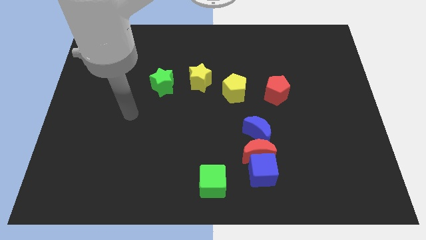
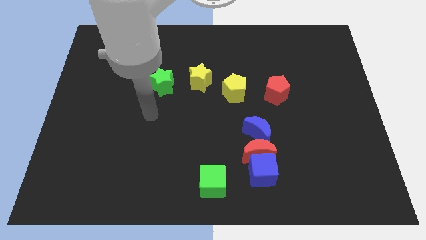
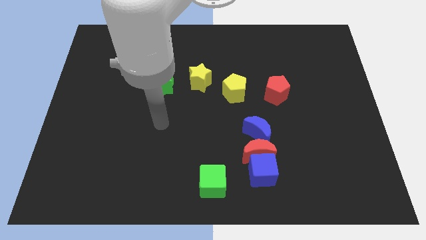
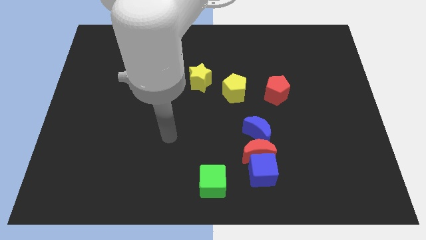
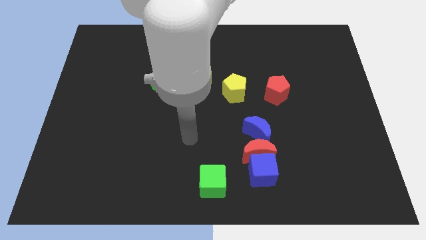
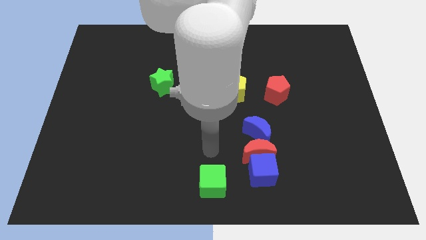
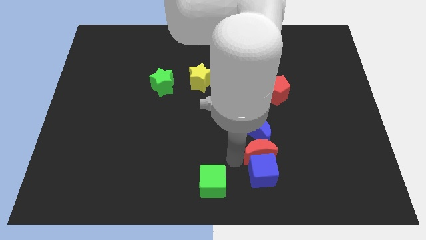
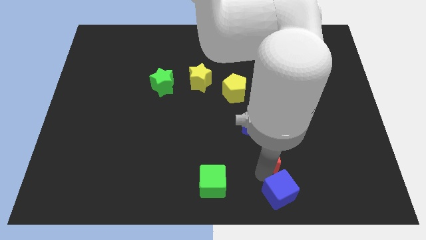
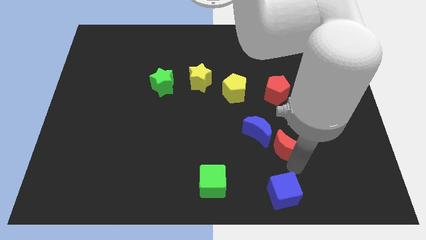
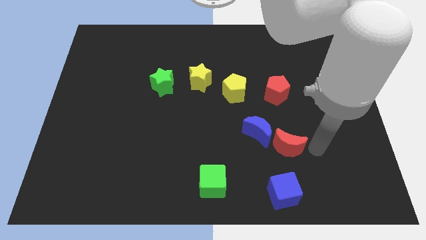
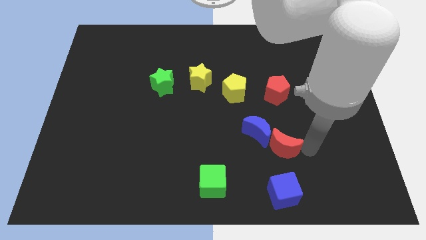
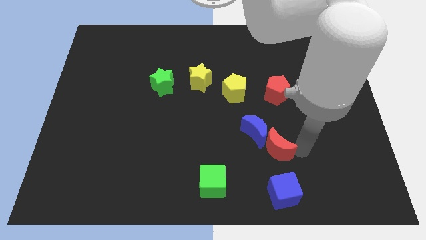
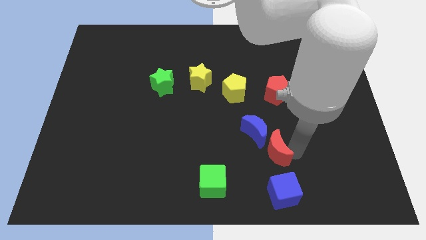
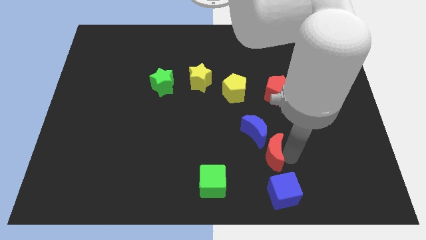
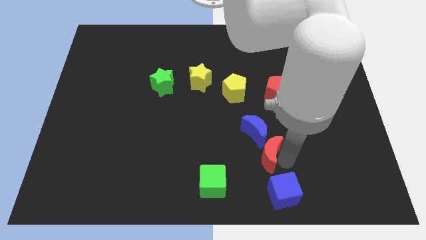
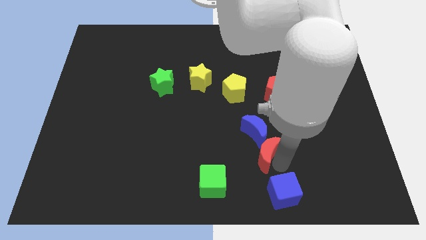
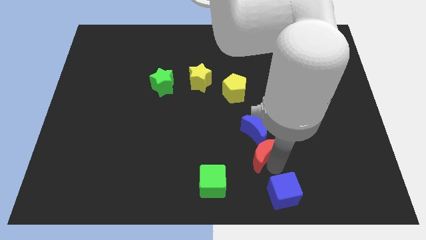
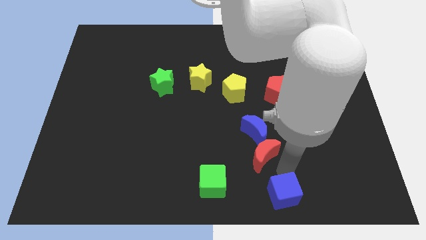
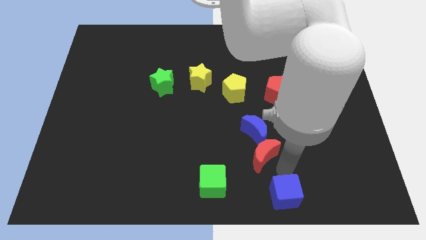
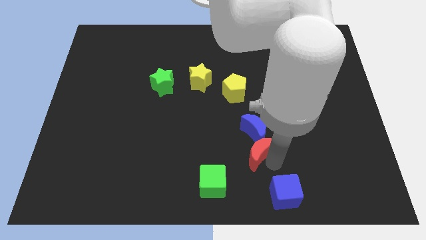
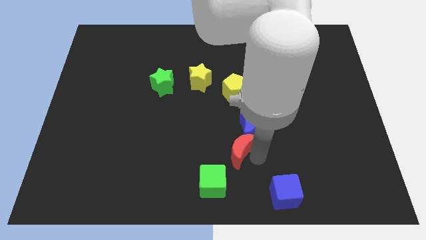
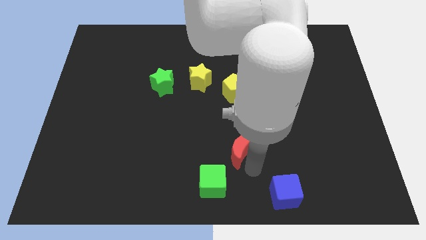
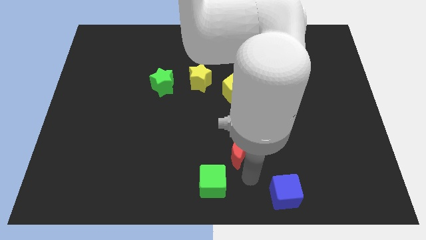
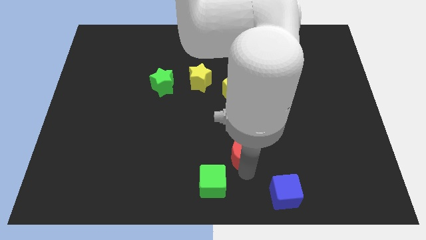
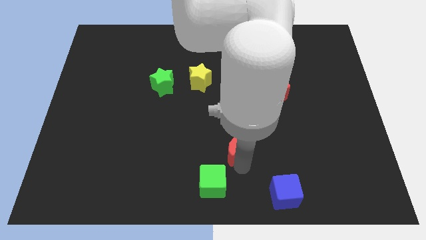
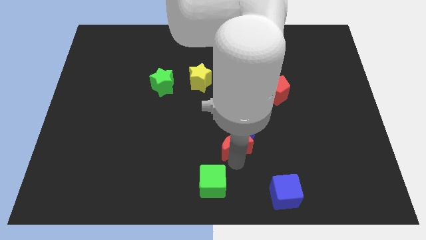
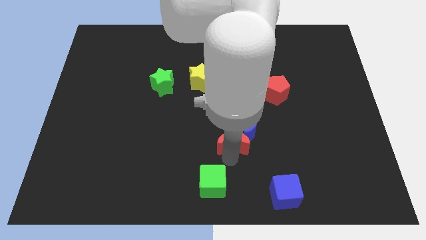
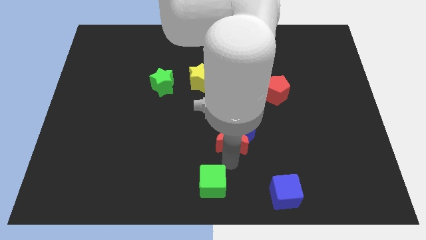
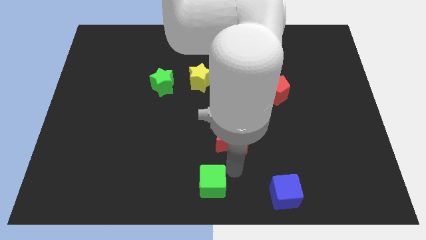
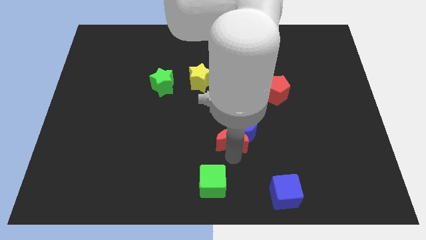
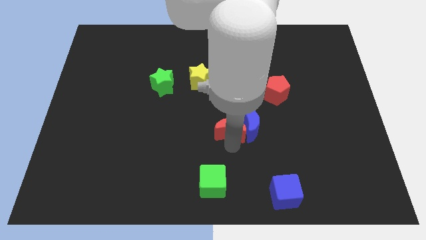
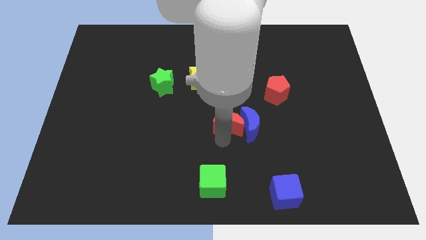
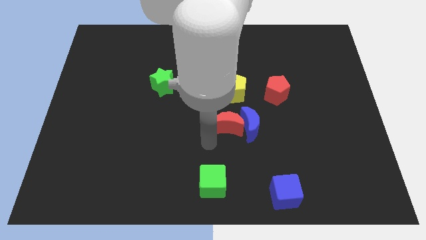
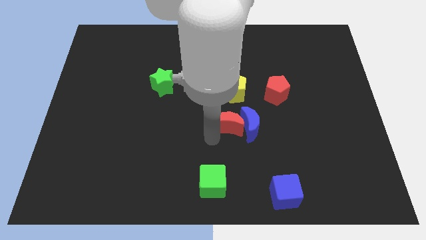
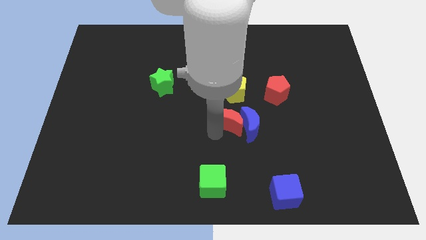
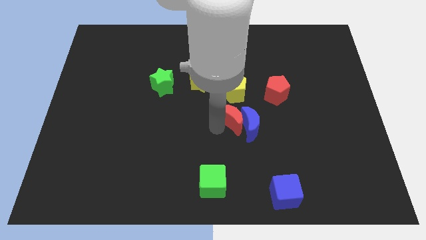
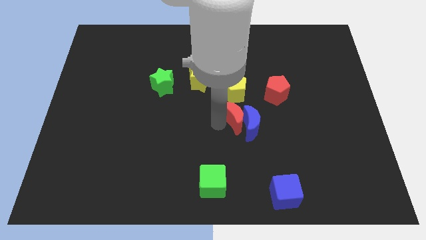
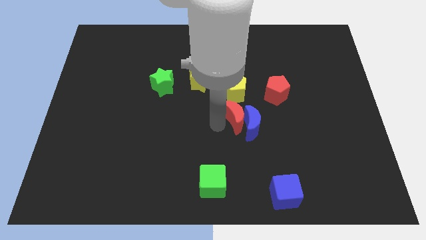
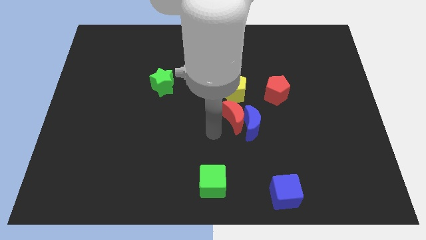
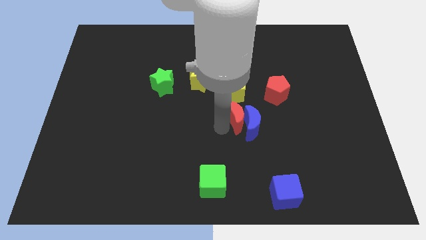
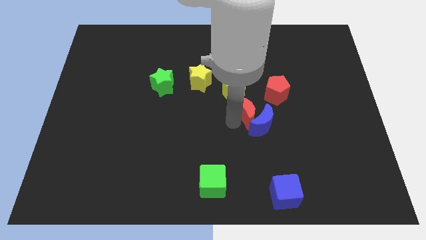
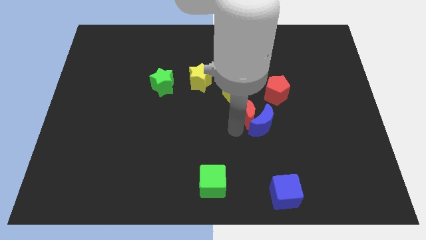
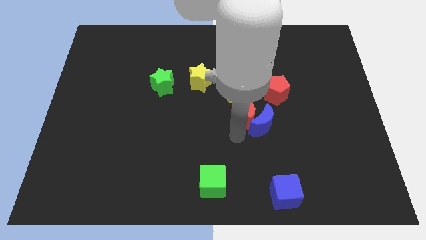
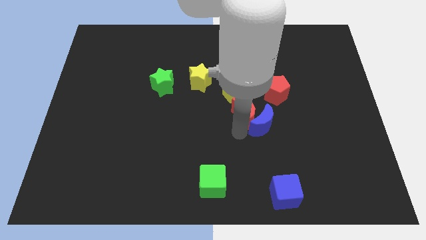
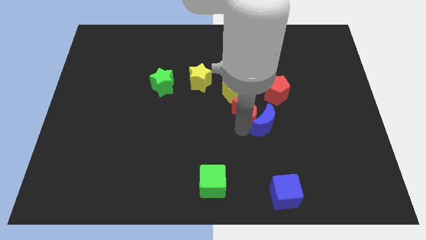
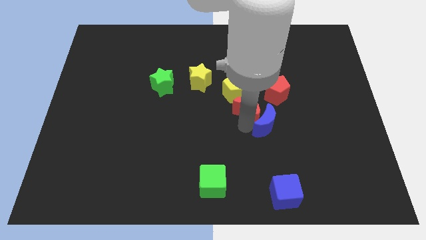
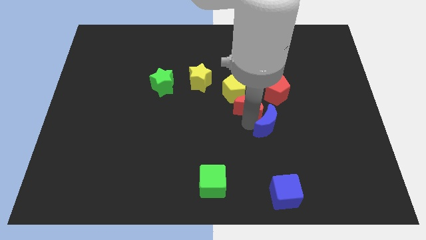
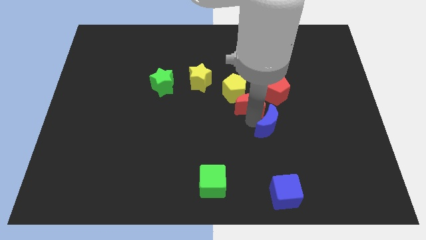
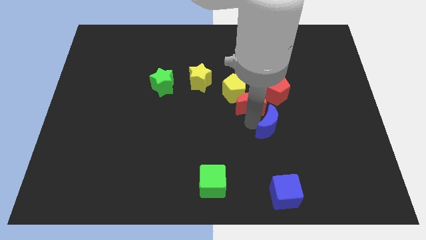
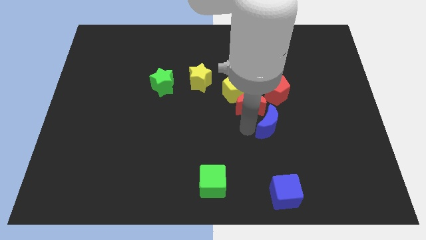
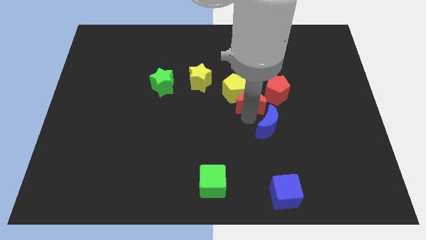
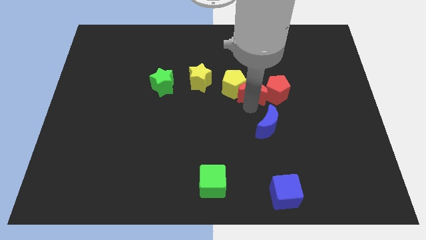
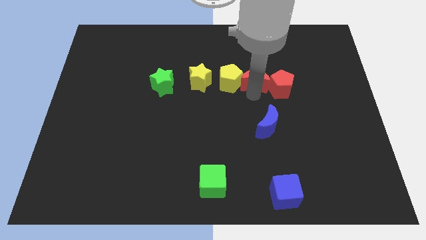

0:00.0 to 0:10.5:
move the red moon to the top right side of the yellow pentagon

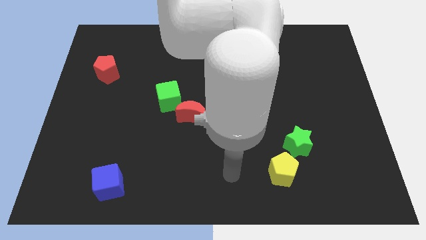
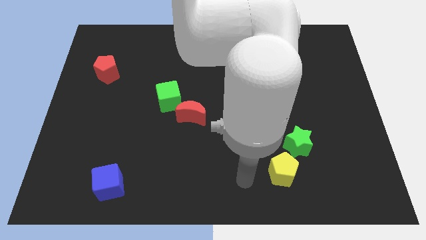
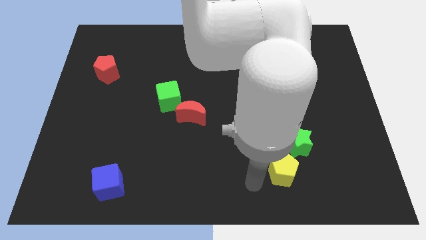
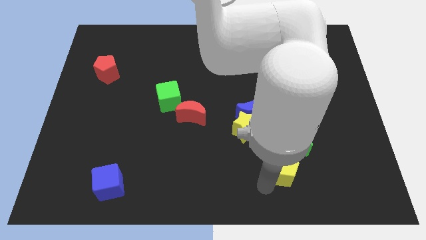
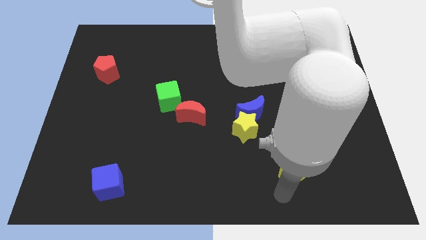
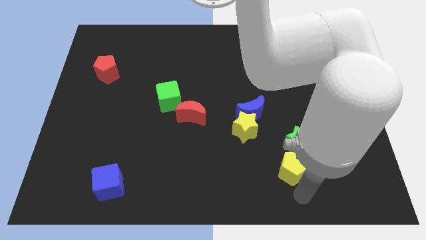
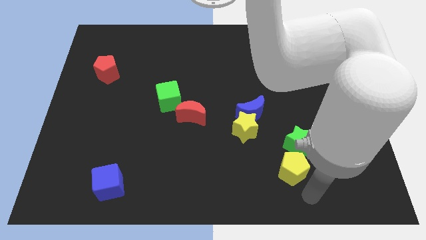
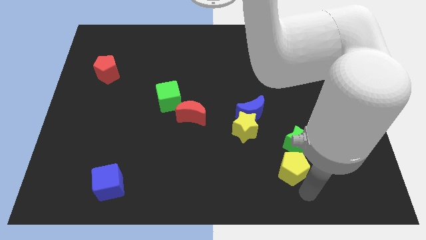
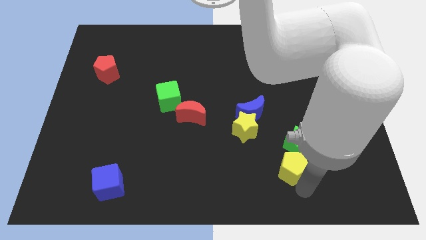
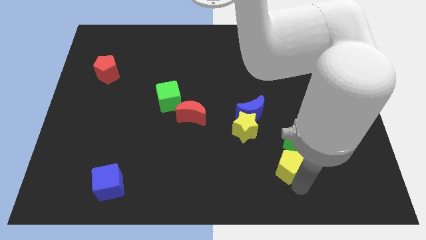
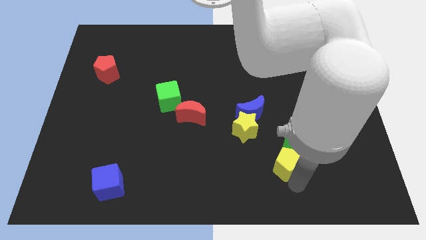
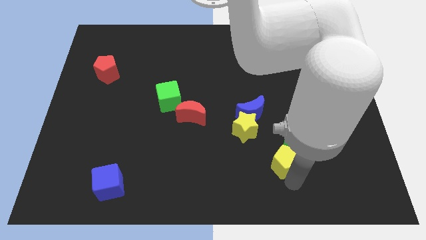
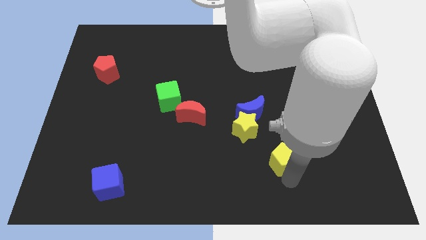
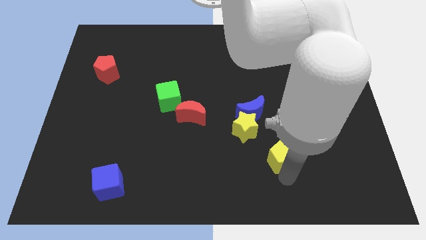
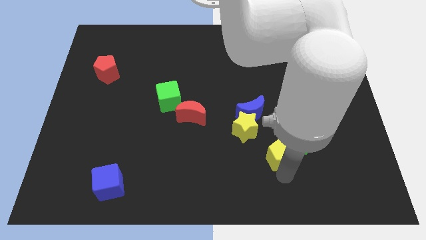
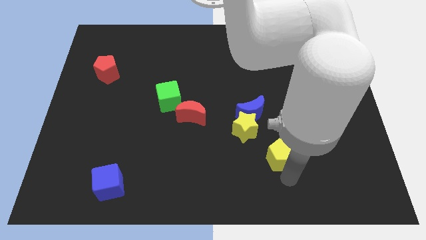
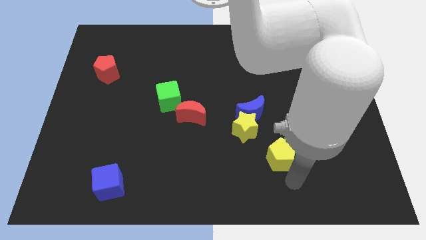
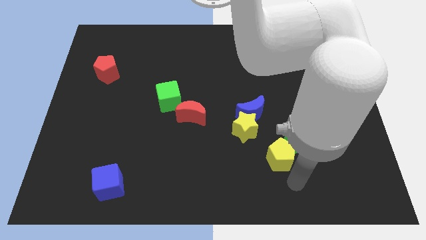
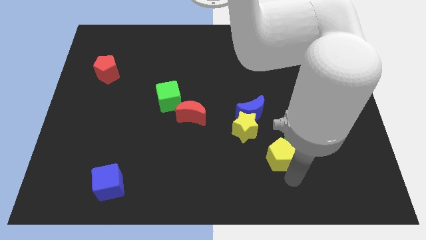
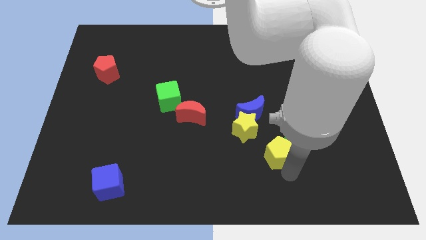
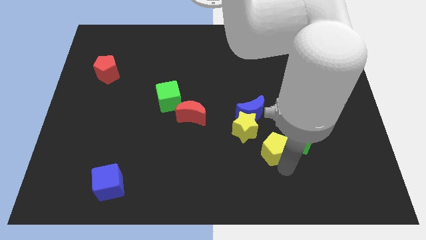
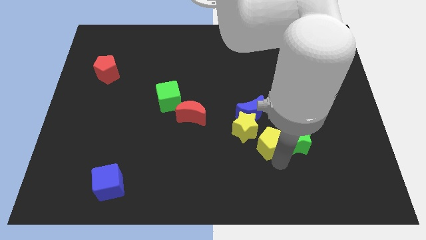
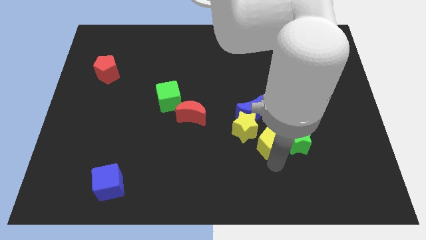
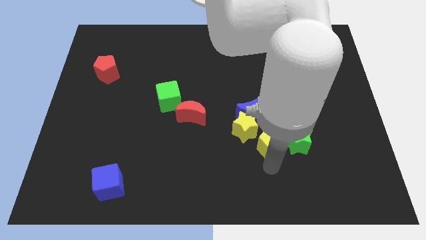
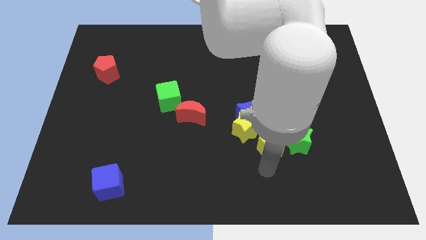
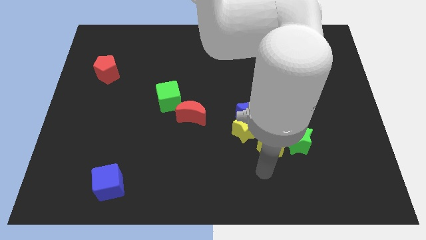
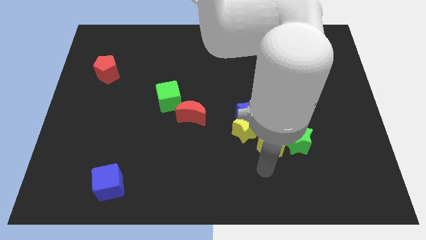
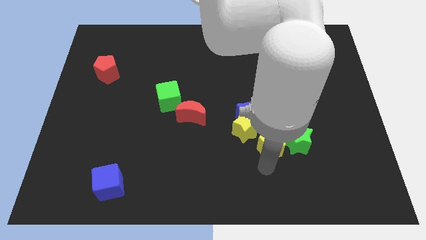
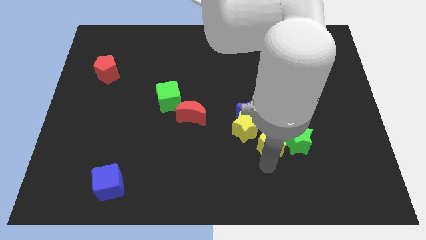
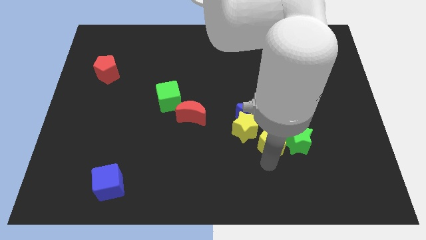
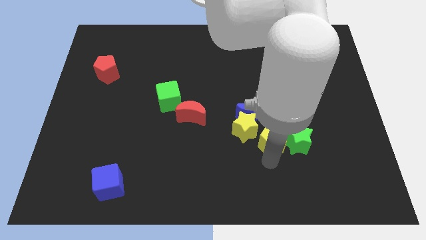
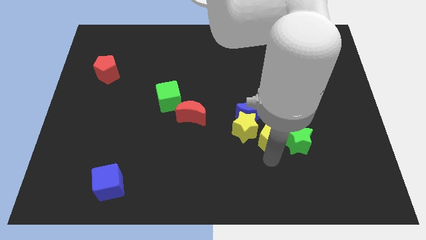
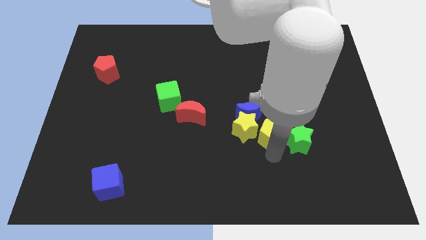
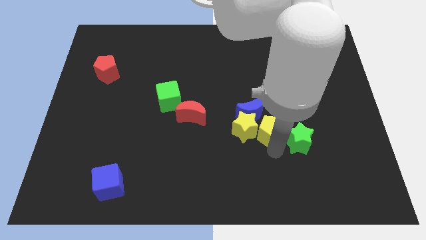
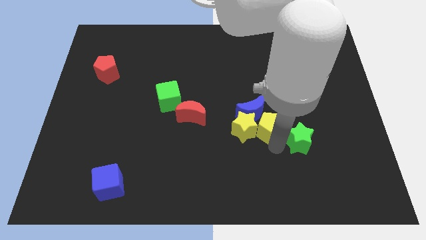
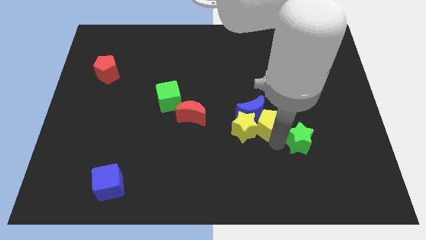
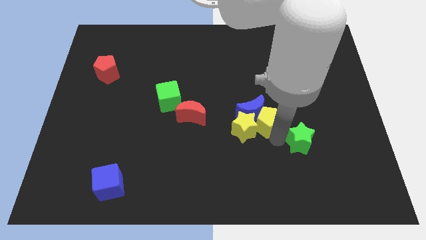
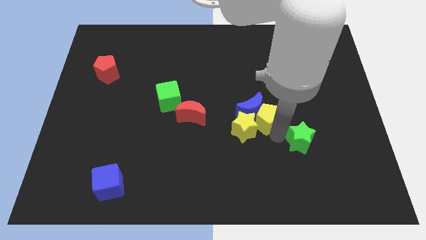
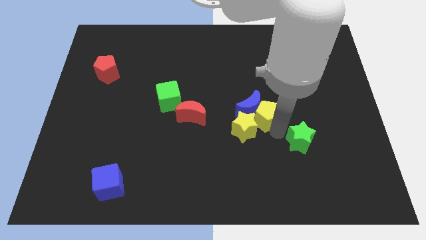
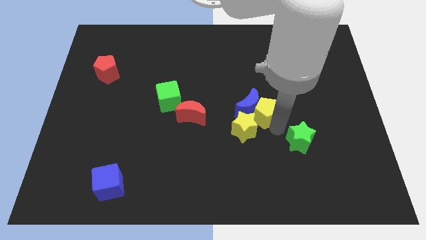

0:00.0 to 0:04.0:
move the yellow pentagon to the top right side of the blue moon
